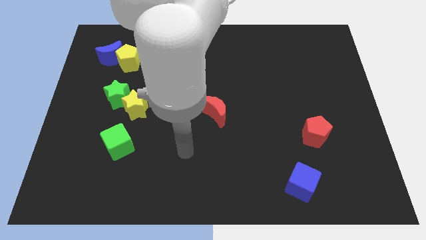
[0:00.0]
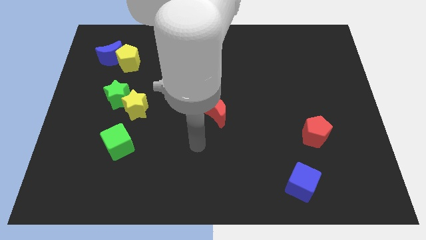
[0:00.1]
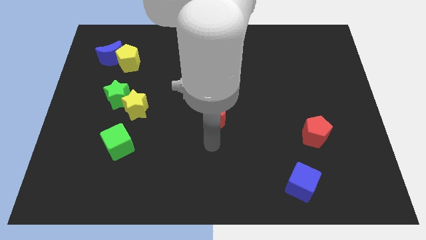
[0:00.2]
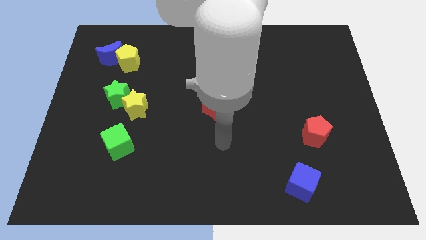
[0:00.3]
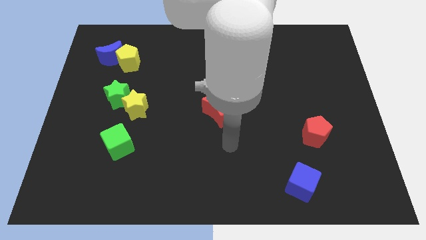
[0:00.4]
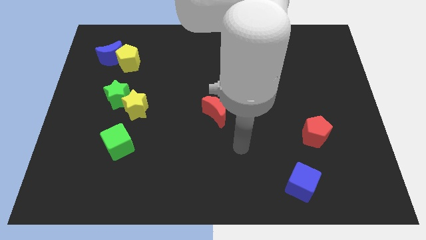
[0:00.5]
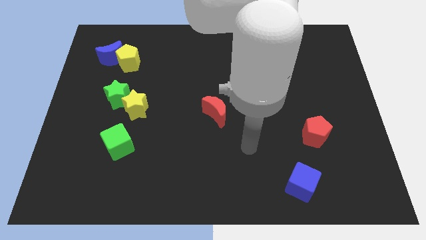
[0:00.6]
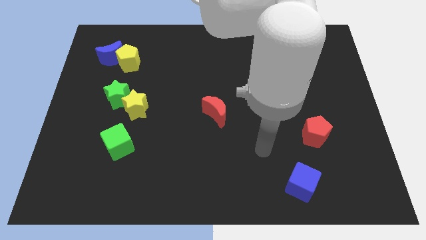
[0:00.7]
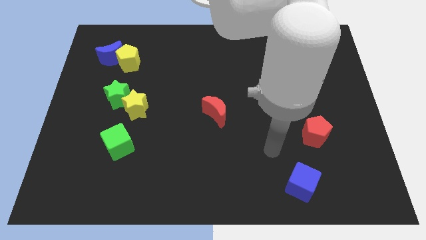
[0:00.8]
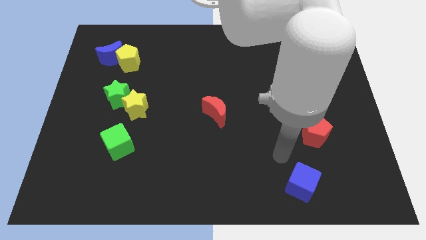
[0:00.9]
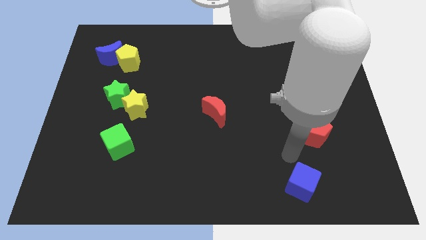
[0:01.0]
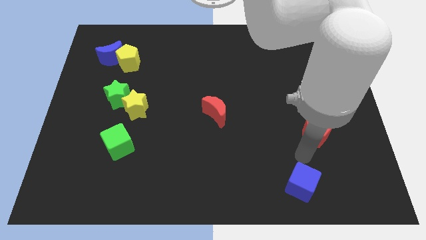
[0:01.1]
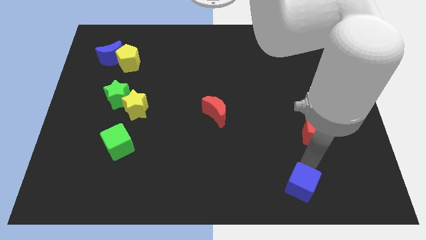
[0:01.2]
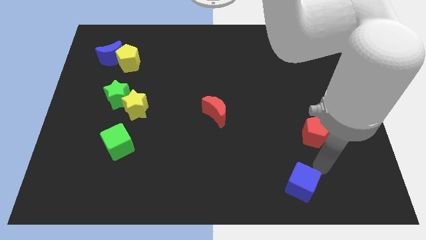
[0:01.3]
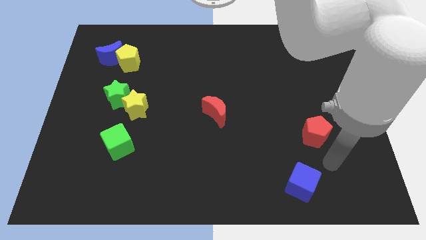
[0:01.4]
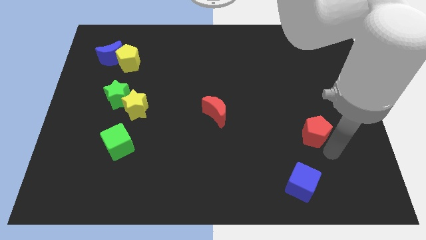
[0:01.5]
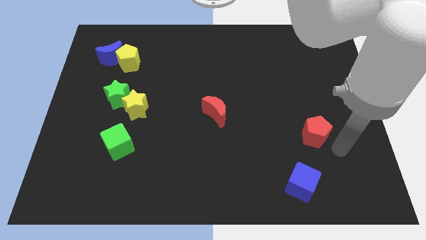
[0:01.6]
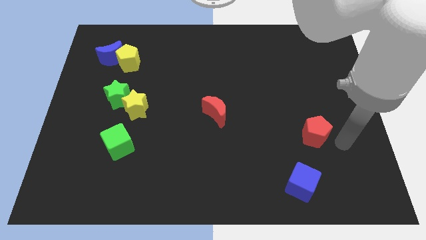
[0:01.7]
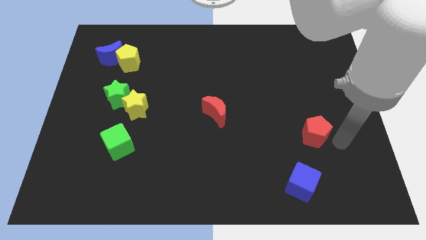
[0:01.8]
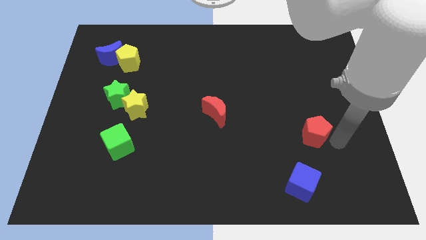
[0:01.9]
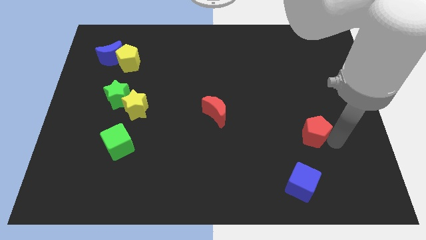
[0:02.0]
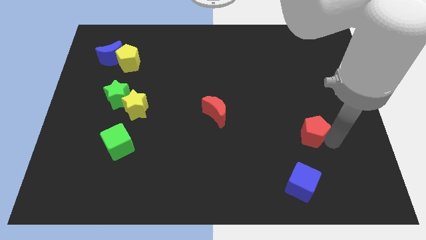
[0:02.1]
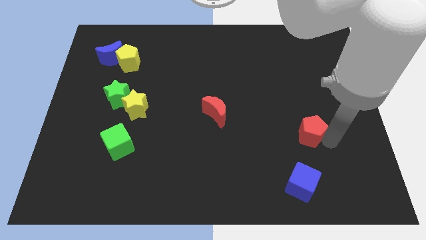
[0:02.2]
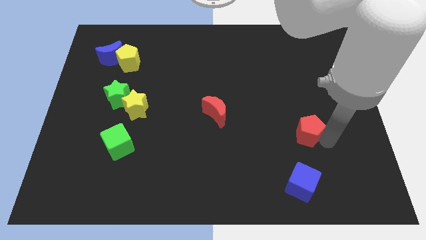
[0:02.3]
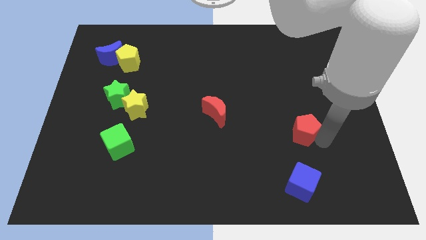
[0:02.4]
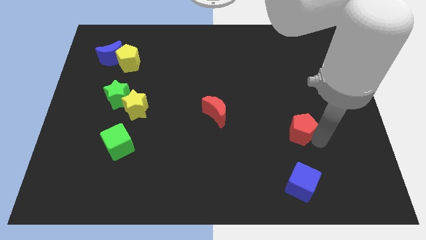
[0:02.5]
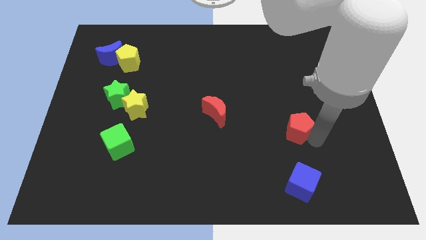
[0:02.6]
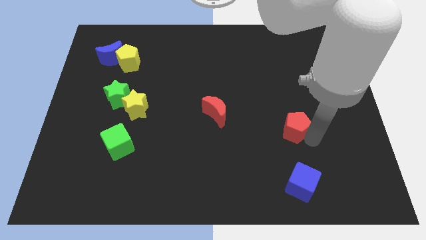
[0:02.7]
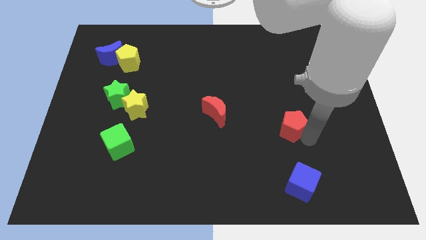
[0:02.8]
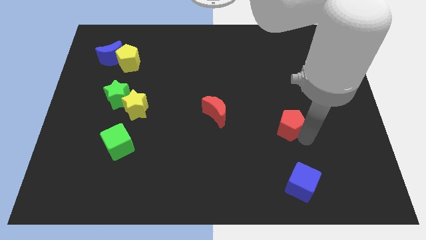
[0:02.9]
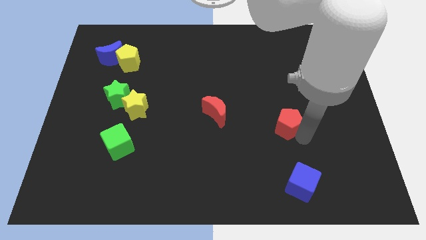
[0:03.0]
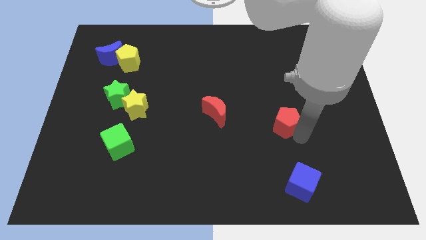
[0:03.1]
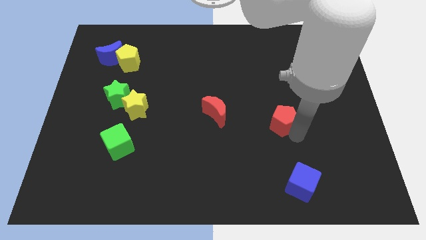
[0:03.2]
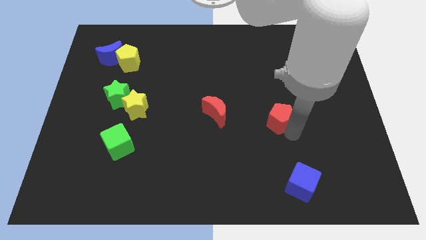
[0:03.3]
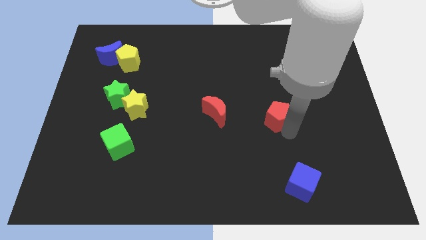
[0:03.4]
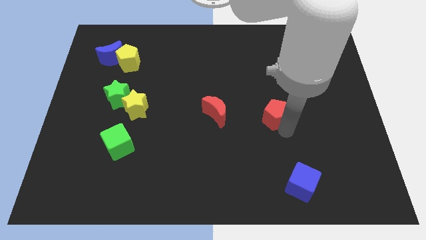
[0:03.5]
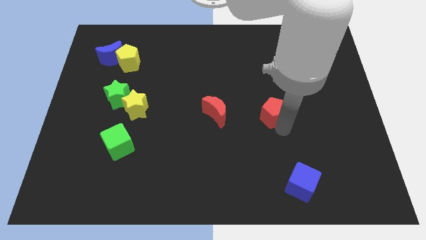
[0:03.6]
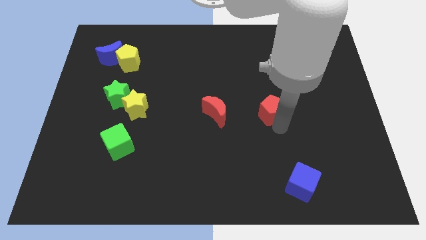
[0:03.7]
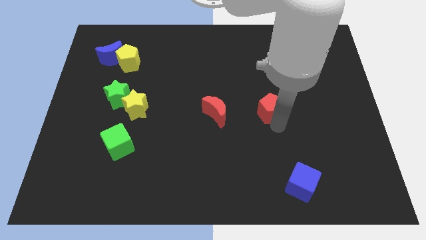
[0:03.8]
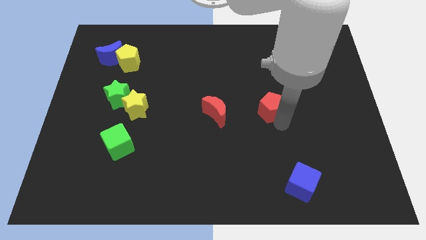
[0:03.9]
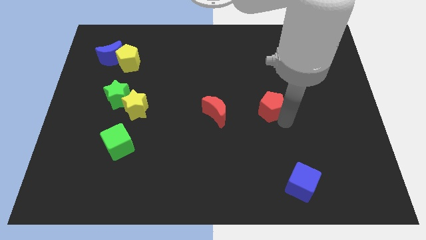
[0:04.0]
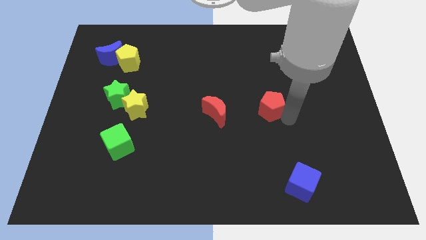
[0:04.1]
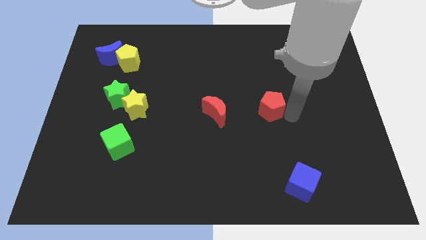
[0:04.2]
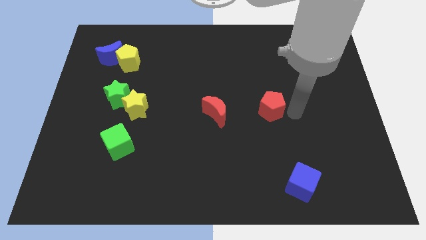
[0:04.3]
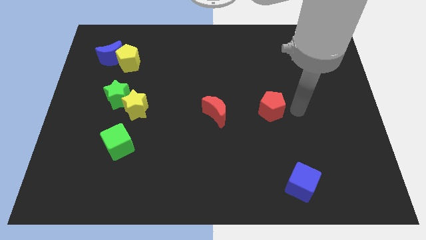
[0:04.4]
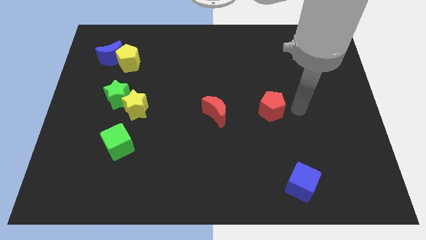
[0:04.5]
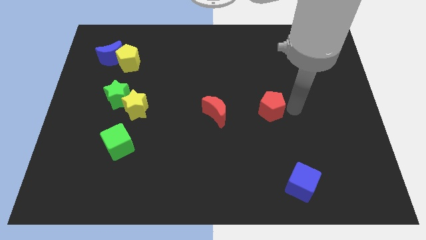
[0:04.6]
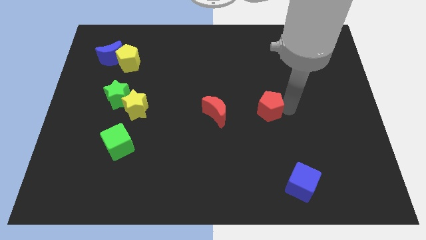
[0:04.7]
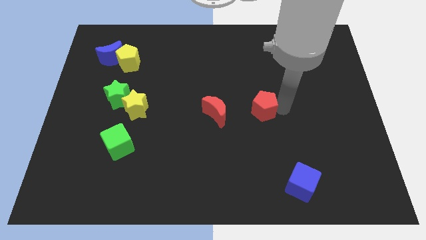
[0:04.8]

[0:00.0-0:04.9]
slide the red pentagon to the center of the board

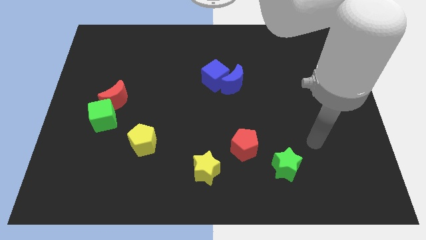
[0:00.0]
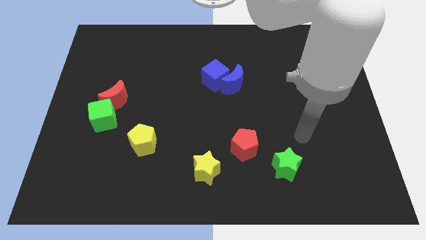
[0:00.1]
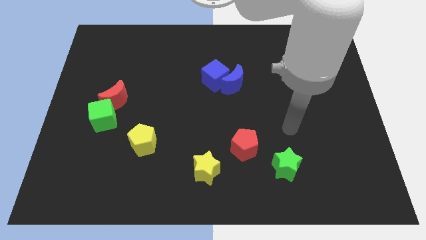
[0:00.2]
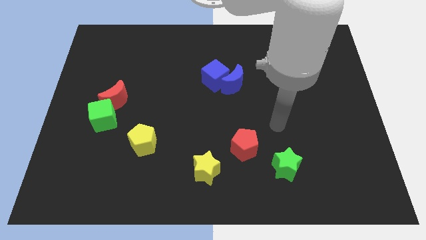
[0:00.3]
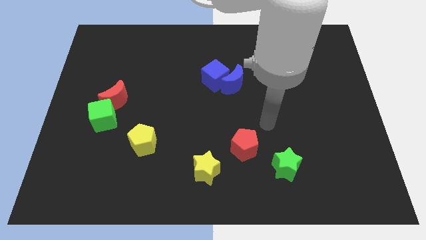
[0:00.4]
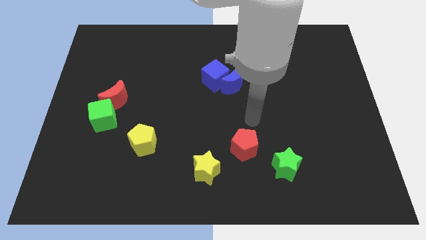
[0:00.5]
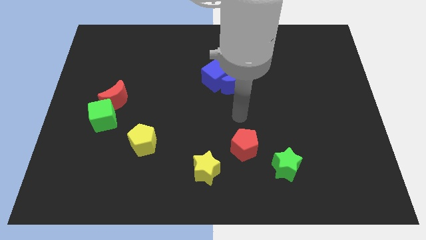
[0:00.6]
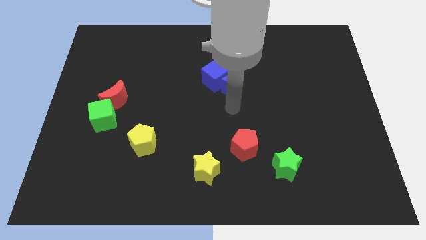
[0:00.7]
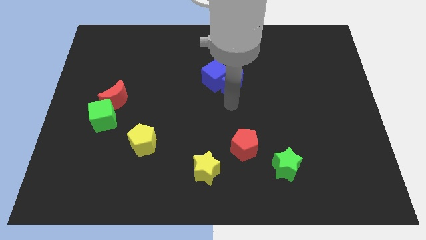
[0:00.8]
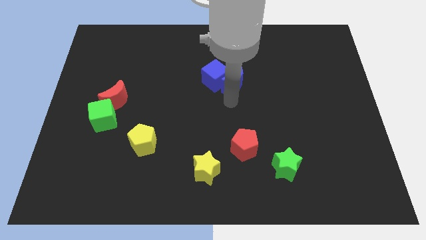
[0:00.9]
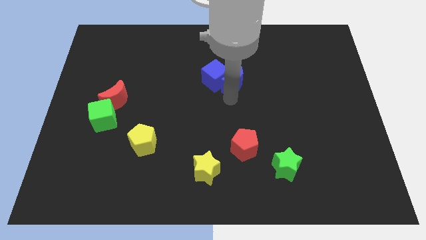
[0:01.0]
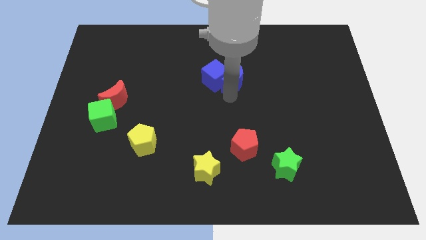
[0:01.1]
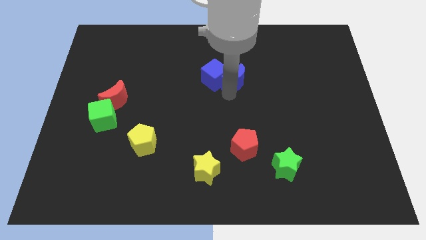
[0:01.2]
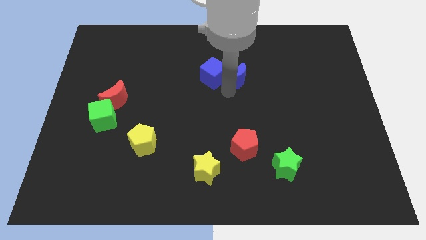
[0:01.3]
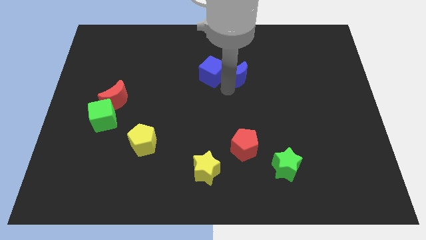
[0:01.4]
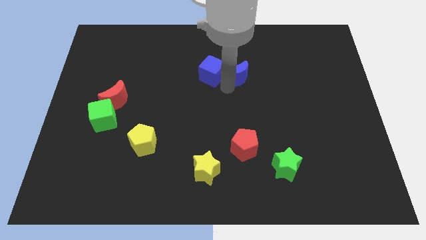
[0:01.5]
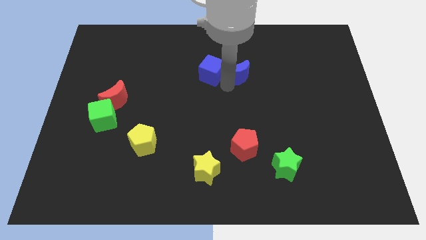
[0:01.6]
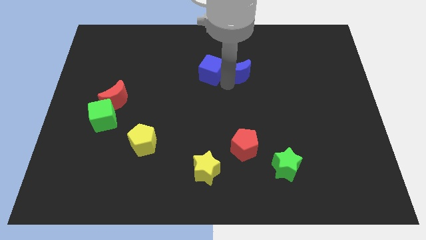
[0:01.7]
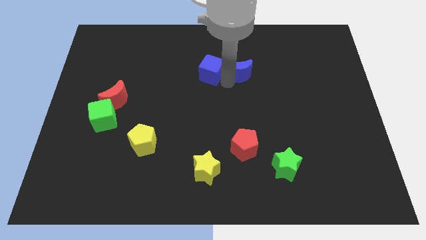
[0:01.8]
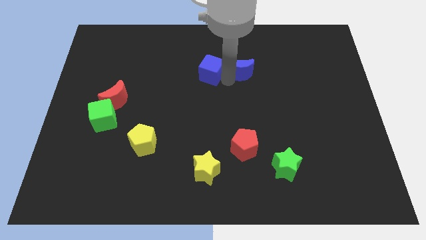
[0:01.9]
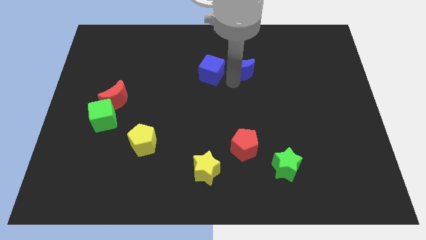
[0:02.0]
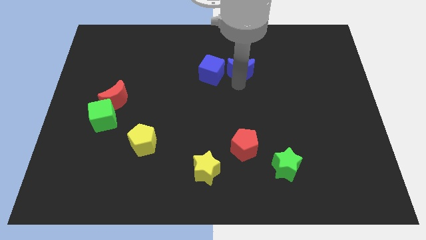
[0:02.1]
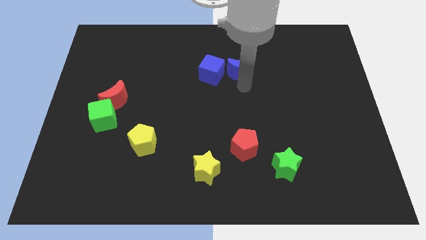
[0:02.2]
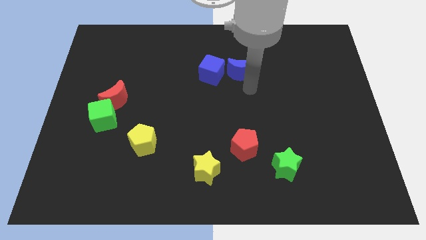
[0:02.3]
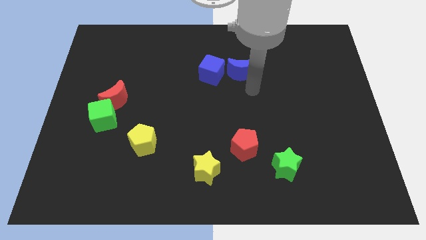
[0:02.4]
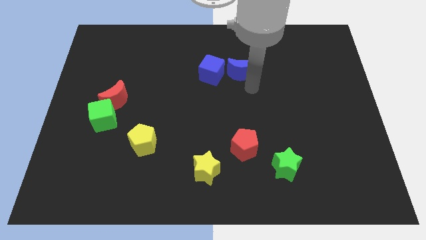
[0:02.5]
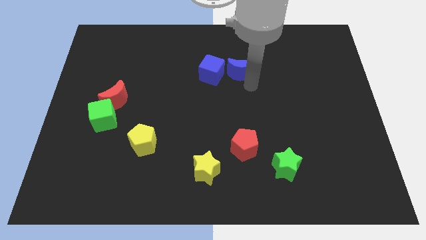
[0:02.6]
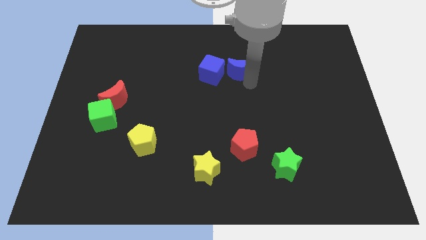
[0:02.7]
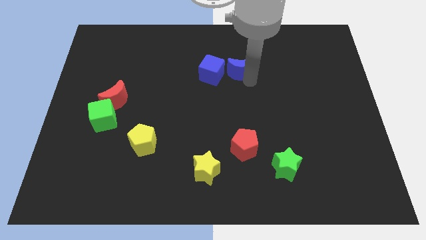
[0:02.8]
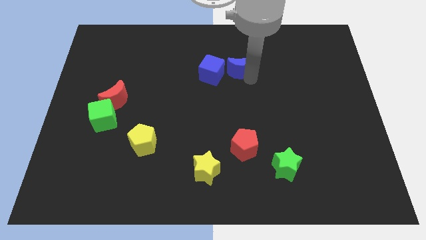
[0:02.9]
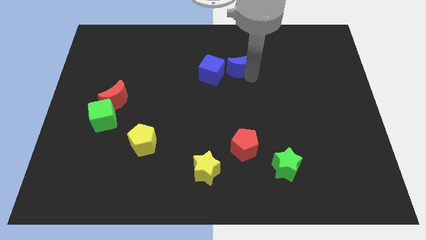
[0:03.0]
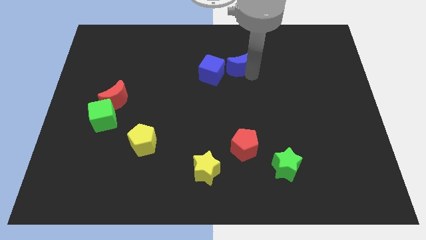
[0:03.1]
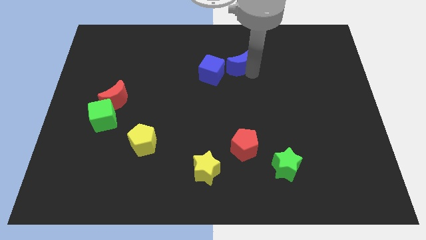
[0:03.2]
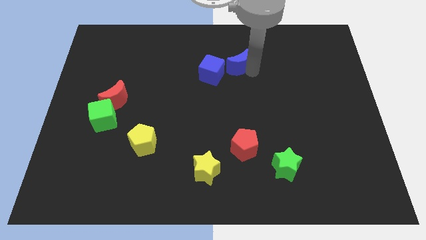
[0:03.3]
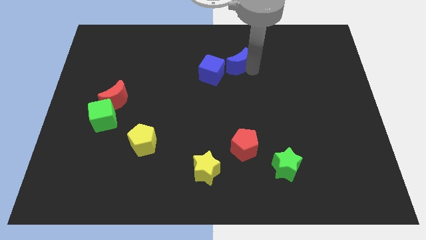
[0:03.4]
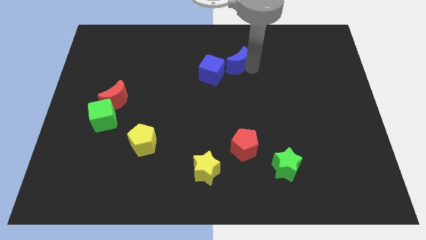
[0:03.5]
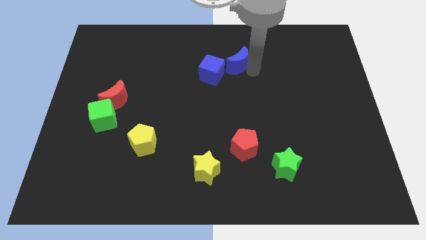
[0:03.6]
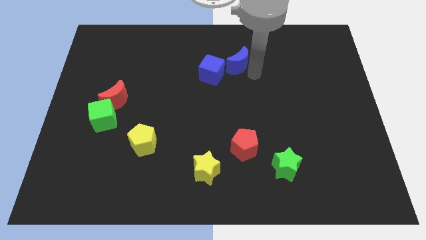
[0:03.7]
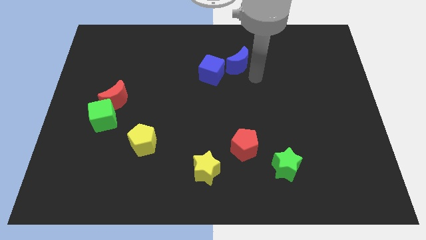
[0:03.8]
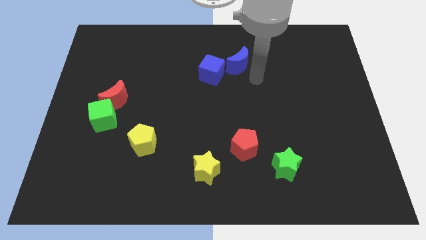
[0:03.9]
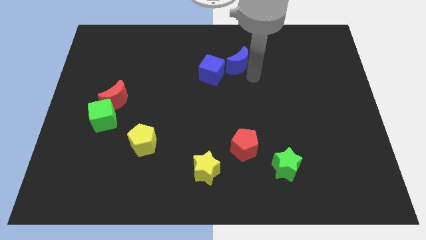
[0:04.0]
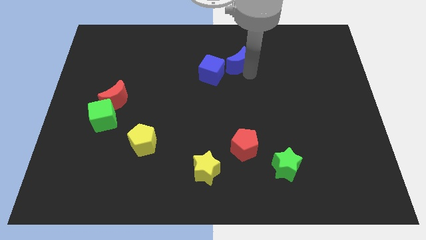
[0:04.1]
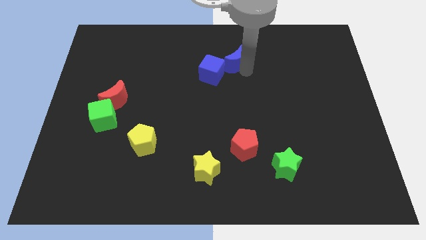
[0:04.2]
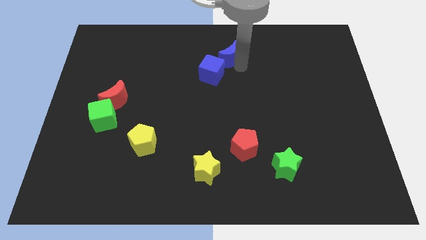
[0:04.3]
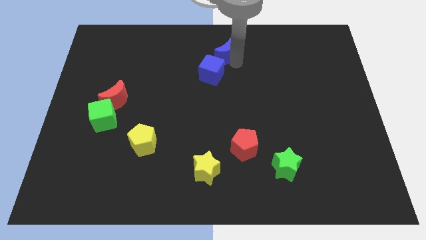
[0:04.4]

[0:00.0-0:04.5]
put the blue moon to the top side
